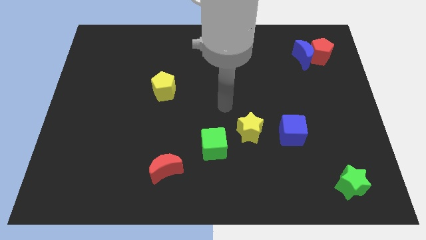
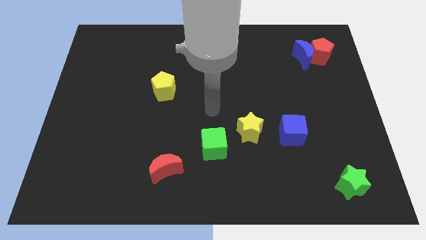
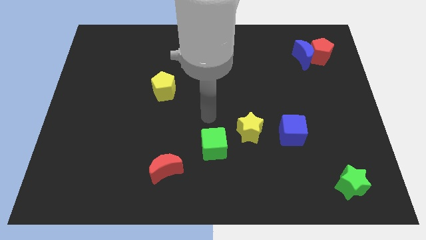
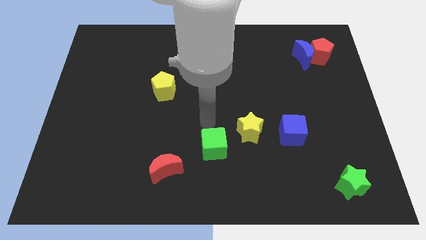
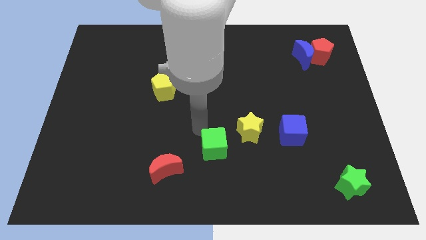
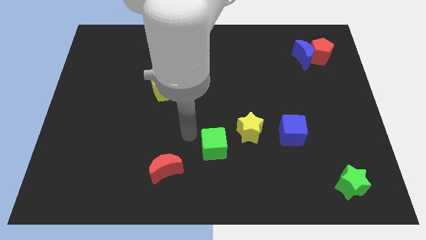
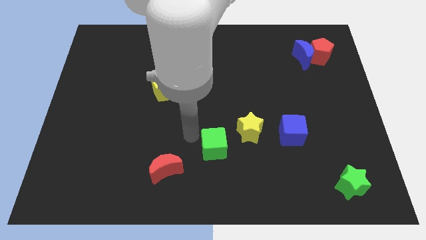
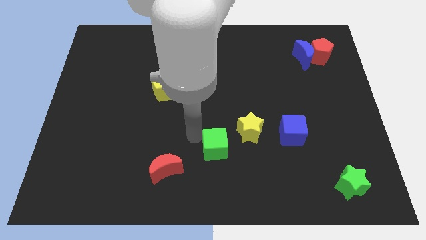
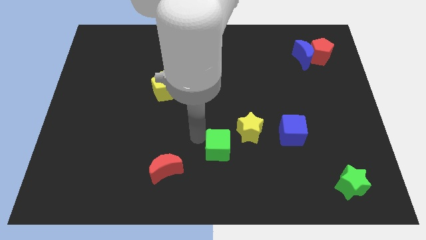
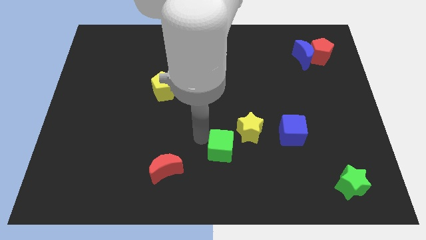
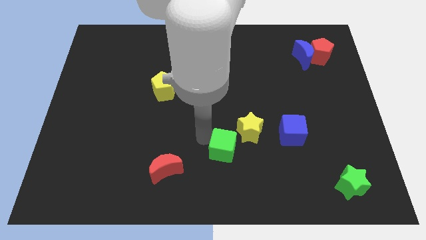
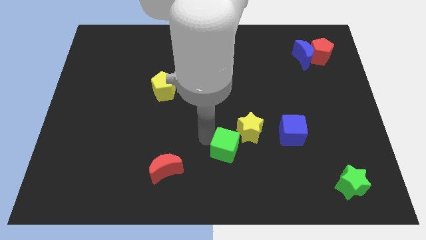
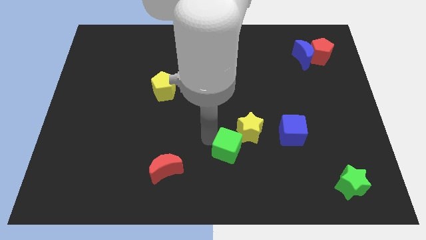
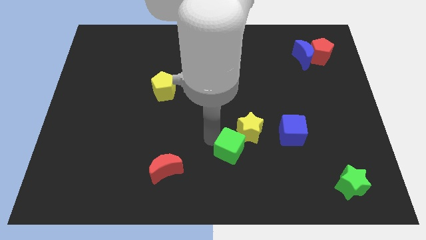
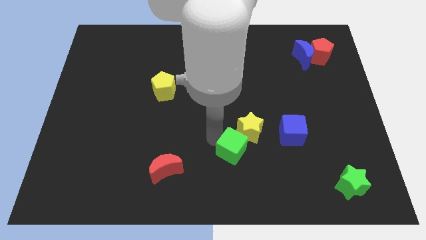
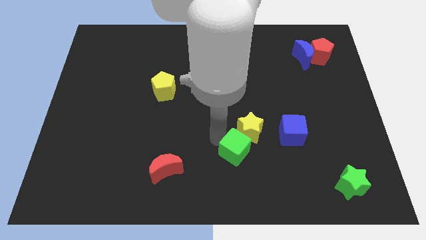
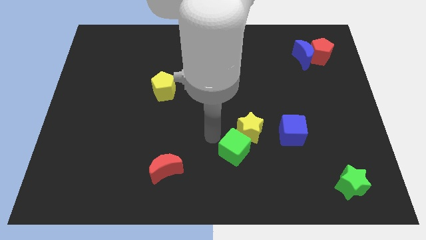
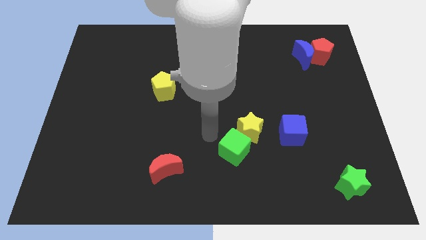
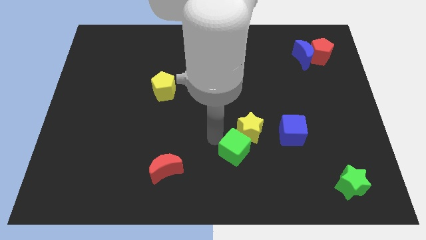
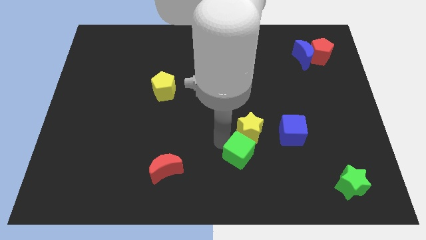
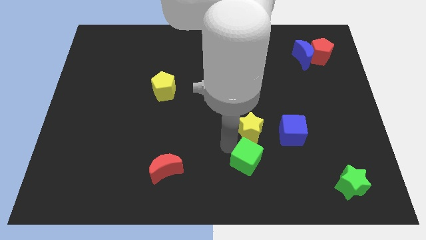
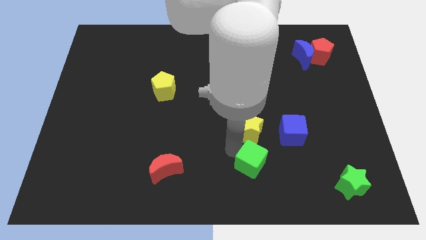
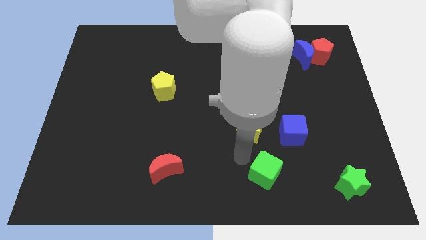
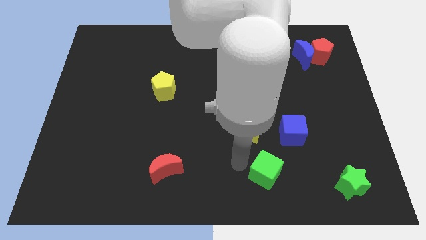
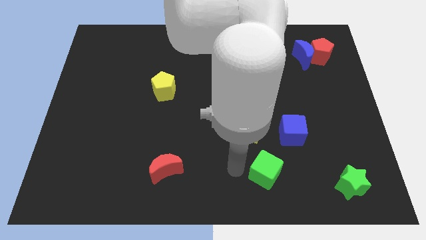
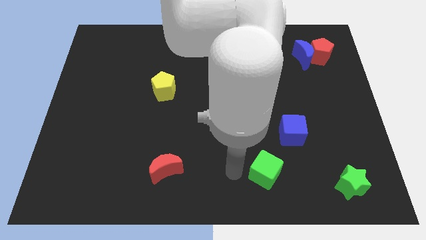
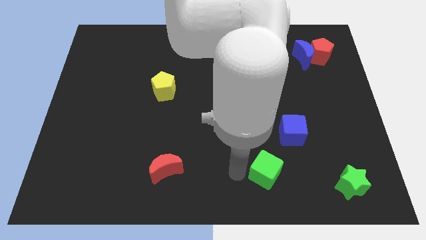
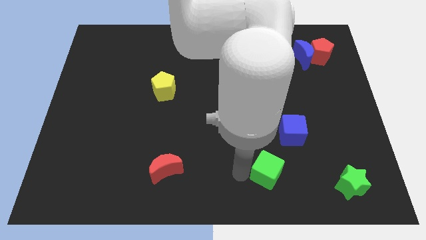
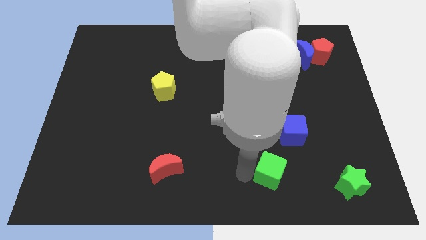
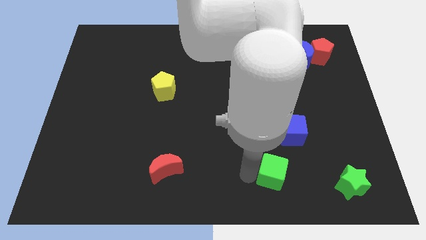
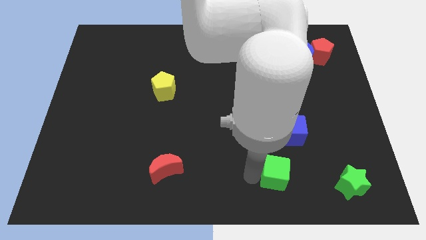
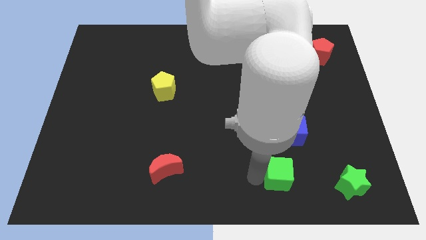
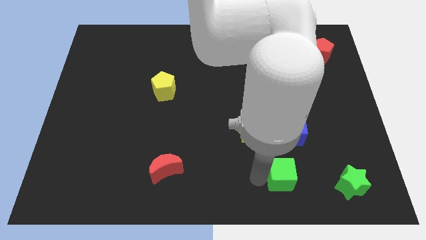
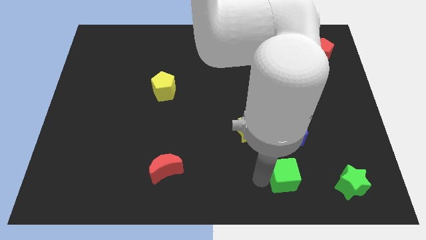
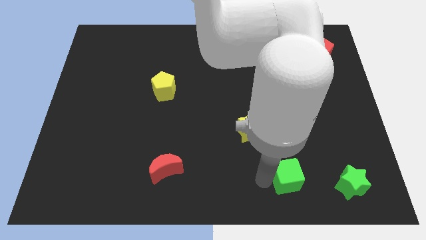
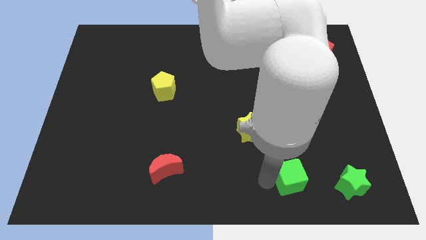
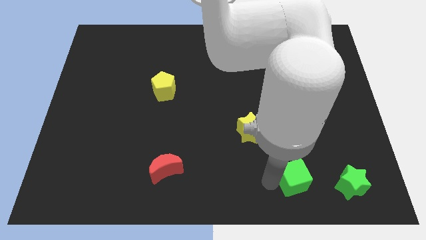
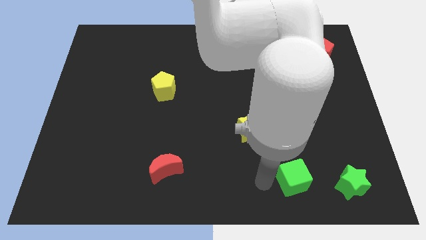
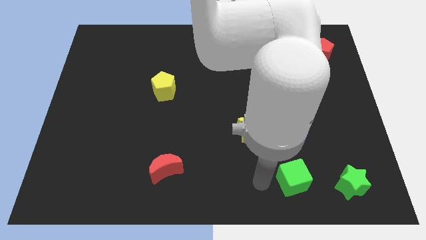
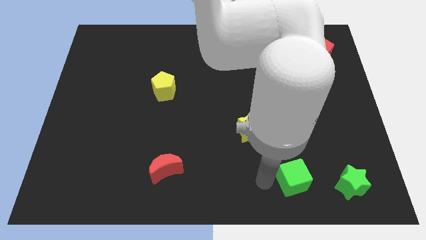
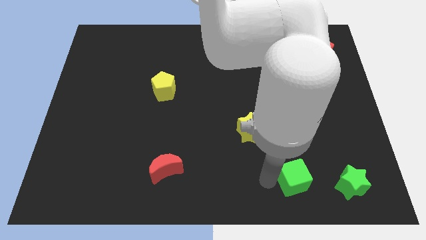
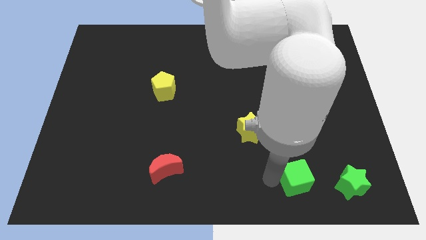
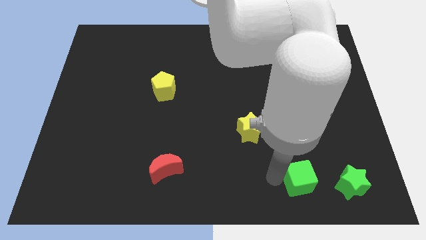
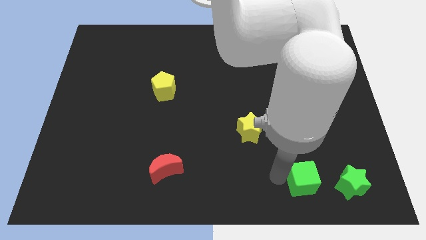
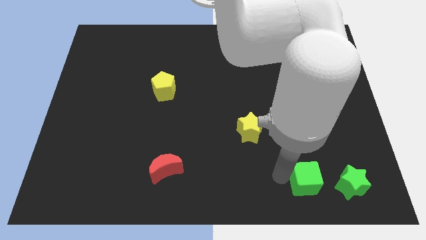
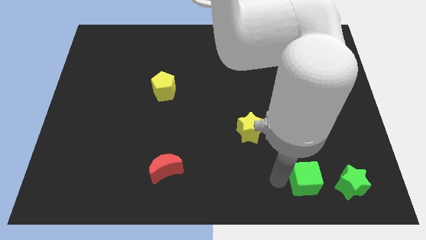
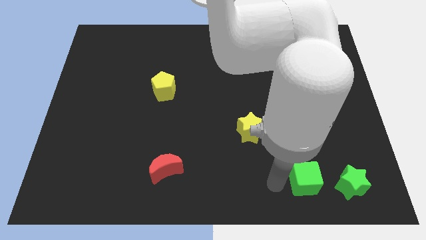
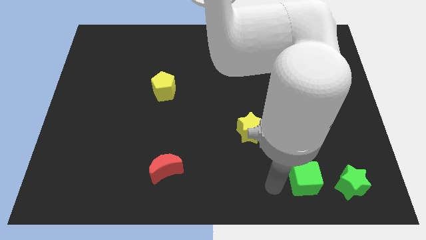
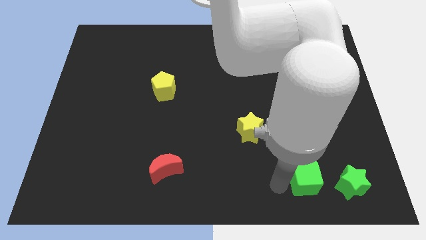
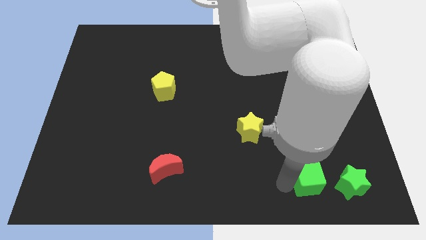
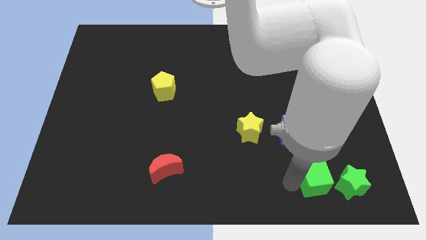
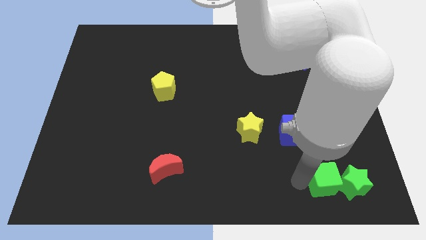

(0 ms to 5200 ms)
move the green cube close to the green star

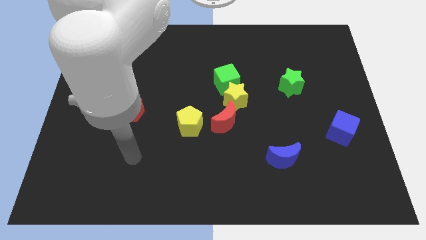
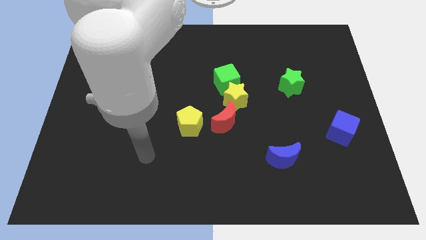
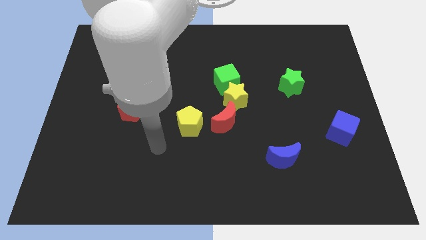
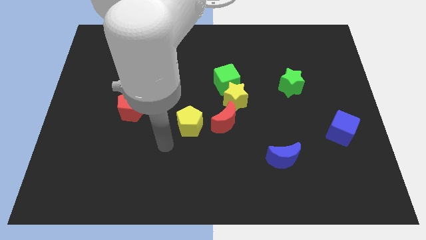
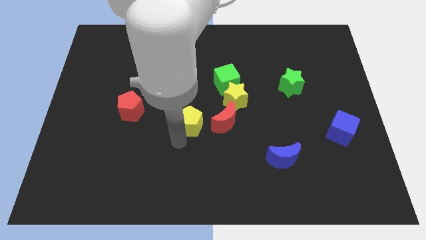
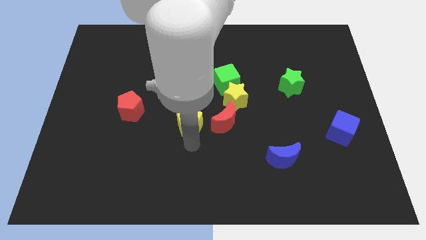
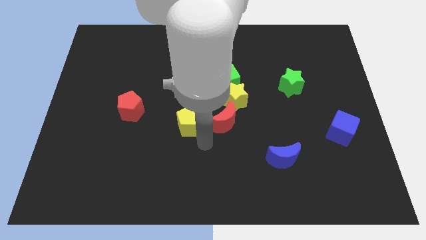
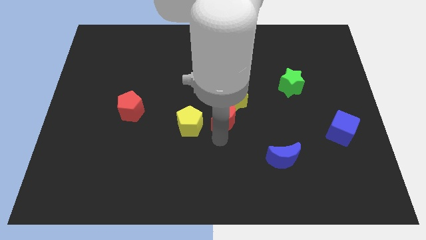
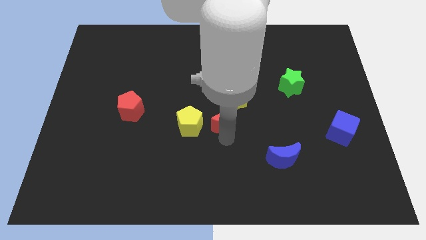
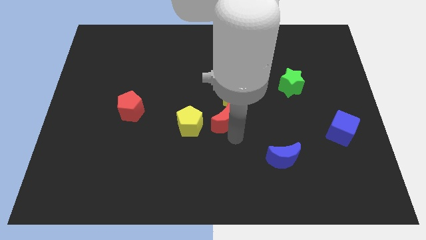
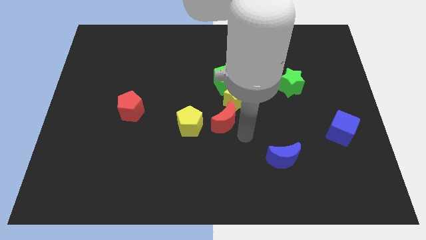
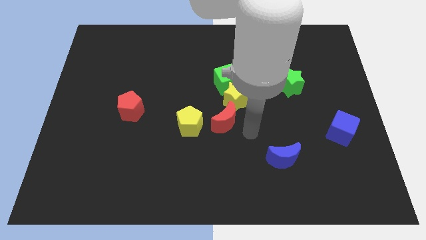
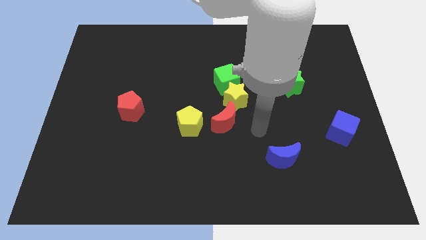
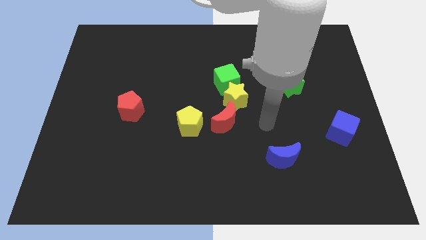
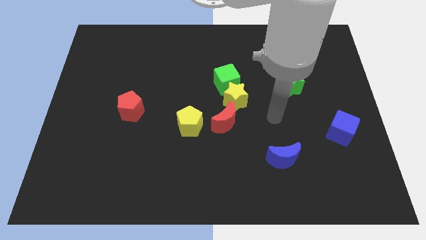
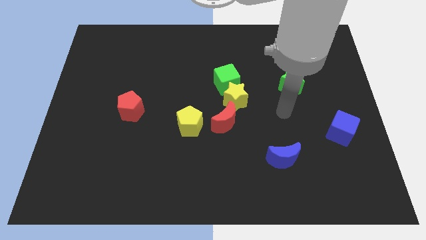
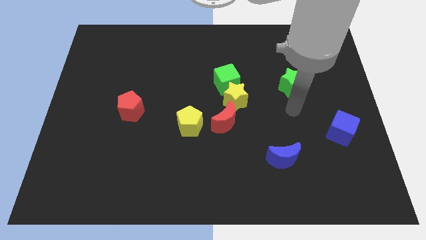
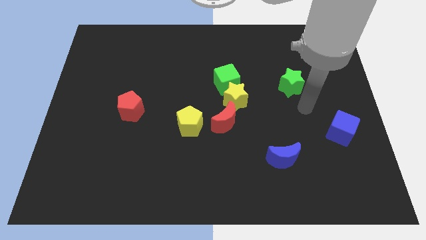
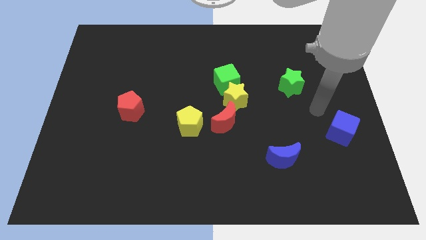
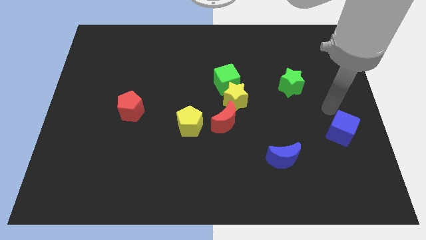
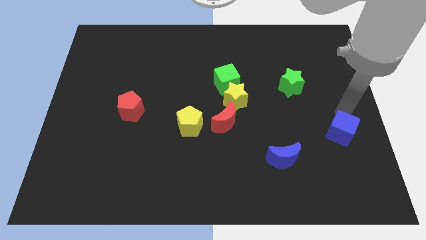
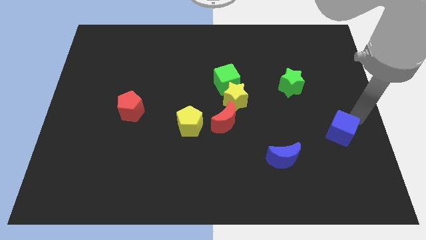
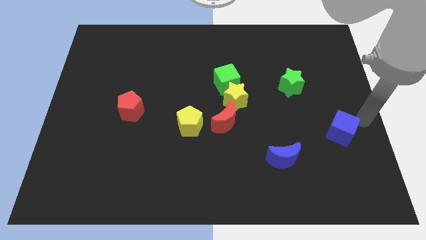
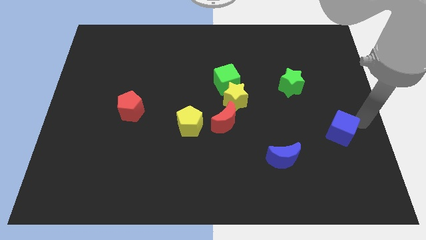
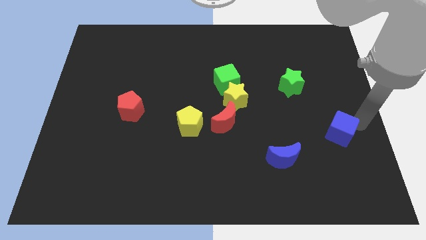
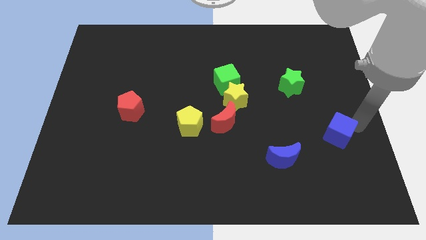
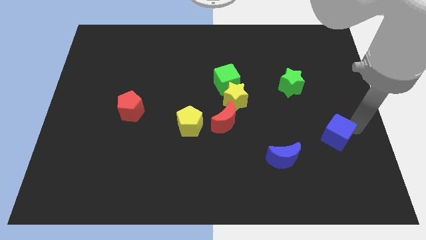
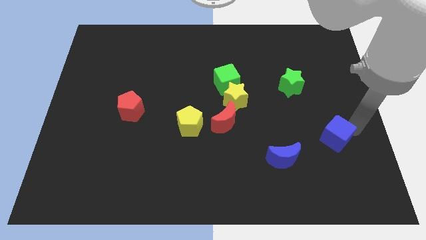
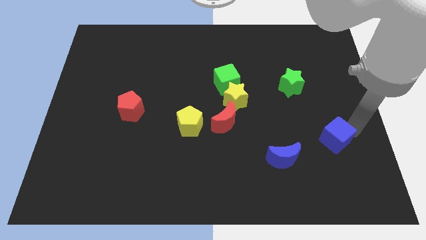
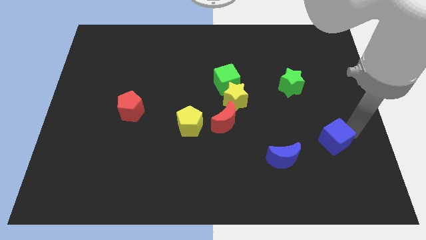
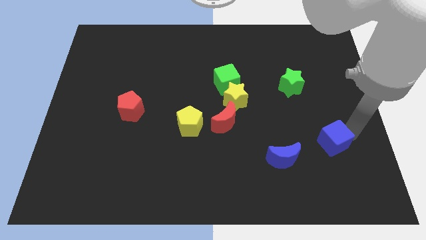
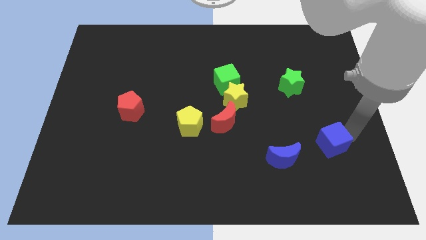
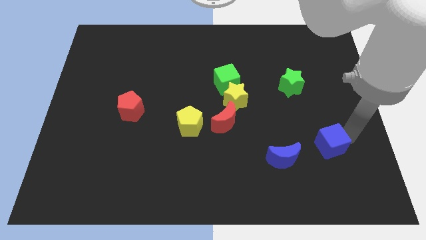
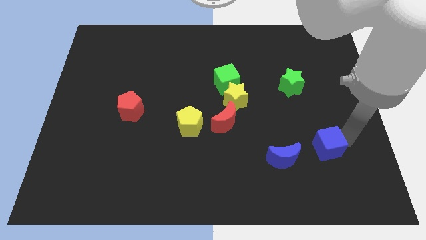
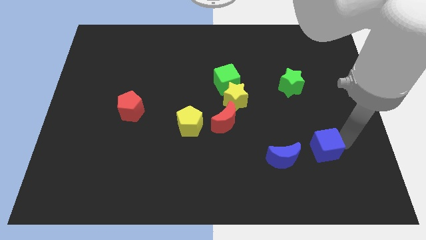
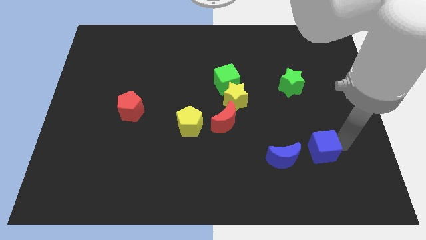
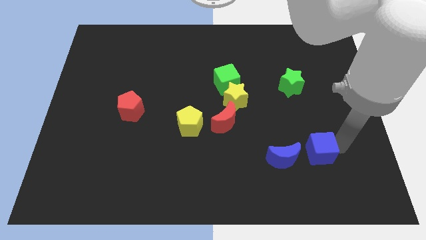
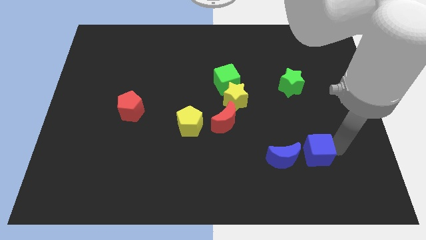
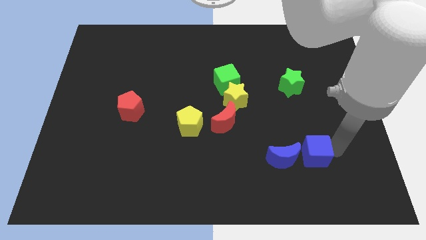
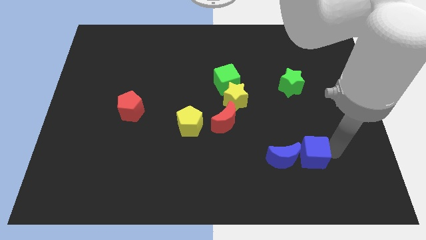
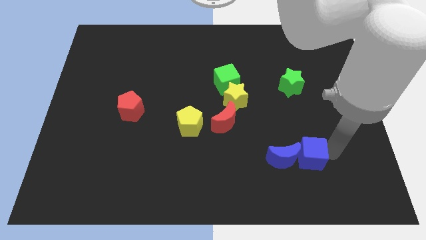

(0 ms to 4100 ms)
push the blue cube close to the blue moon
